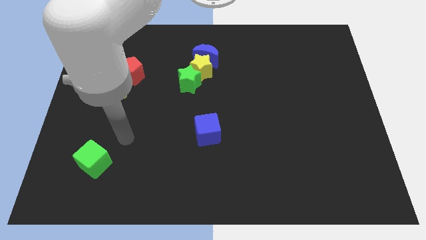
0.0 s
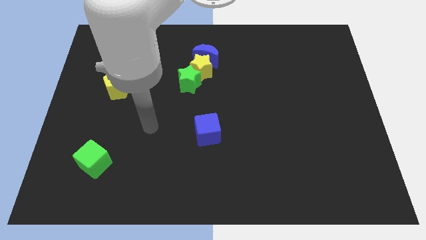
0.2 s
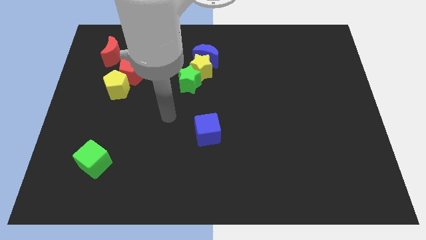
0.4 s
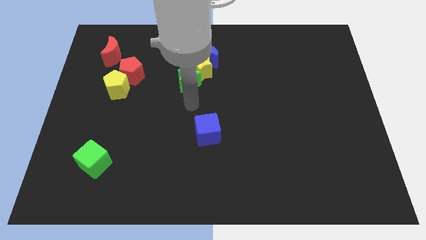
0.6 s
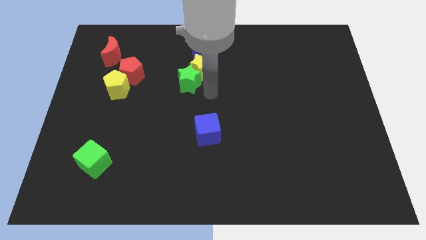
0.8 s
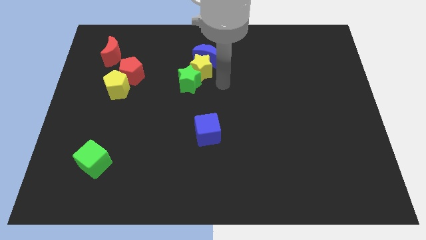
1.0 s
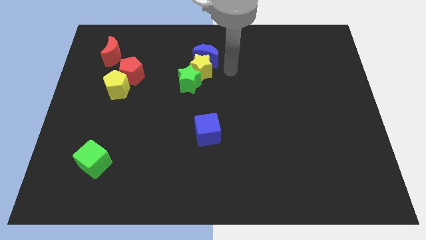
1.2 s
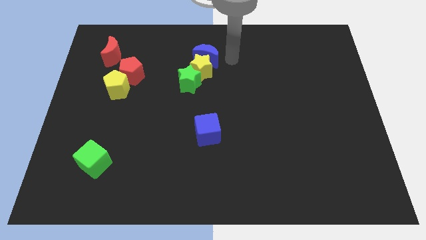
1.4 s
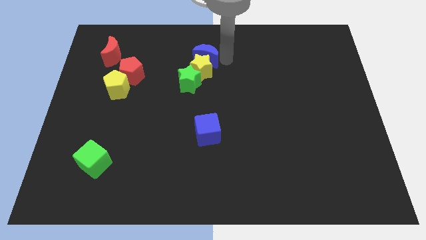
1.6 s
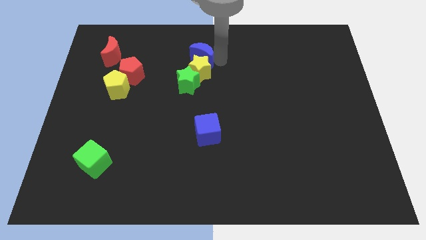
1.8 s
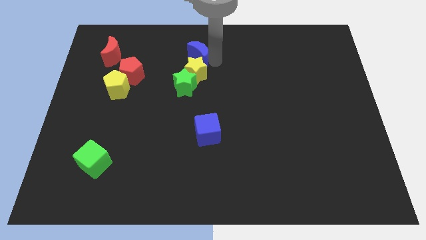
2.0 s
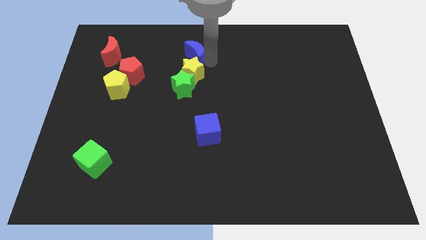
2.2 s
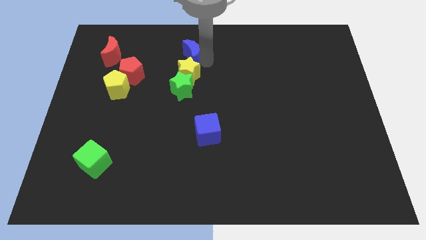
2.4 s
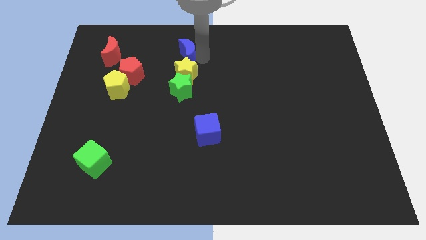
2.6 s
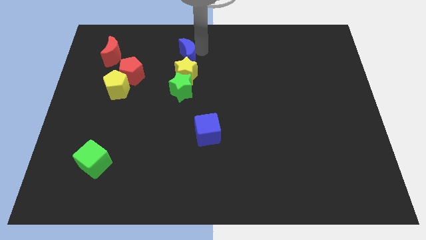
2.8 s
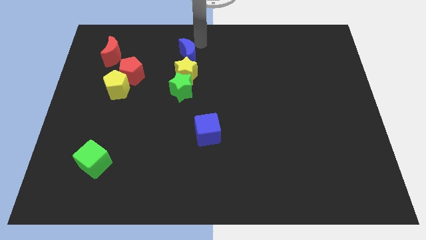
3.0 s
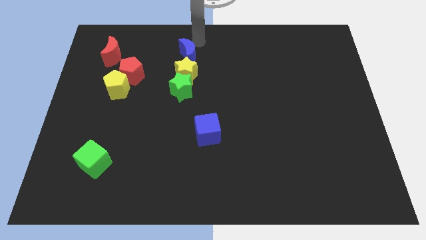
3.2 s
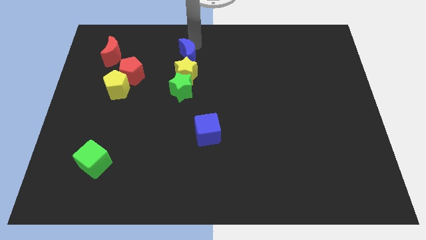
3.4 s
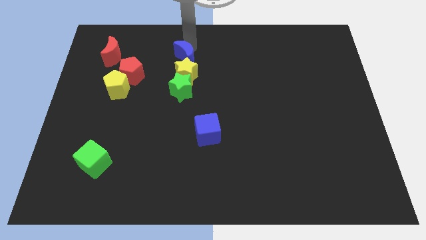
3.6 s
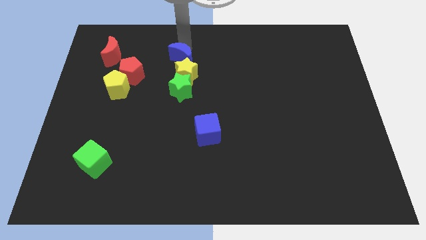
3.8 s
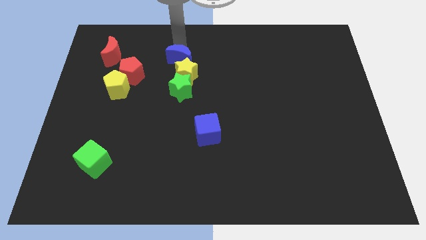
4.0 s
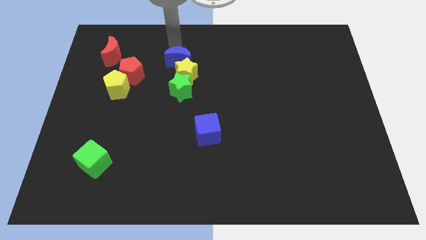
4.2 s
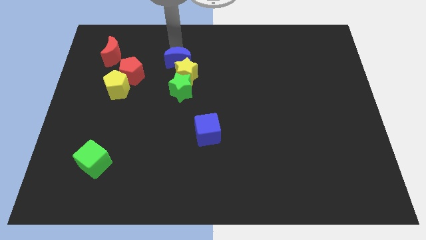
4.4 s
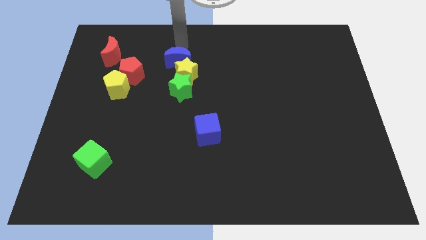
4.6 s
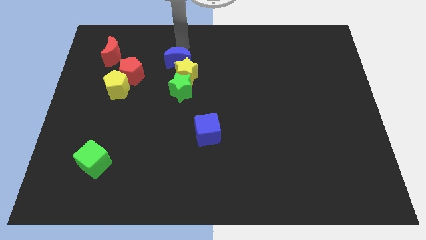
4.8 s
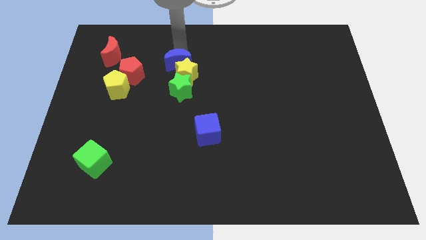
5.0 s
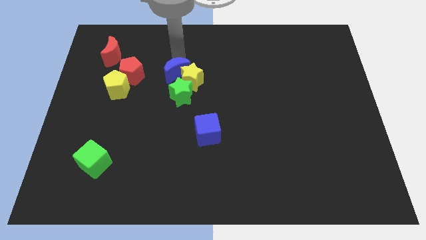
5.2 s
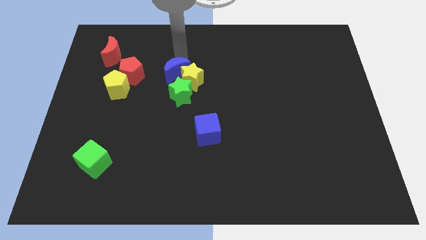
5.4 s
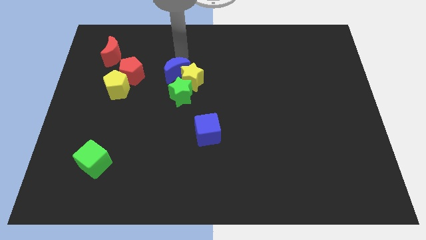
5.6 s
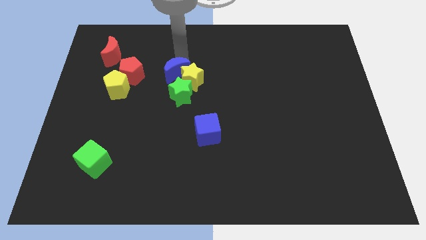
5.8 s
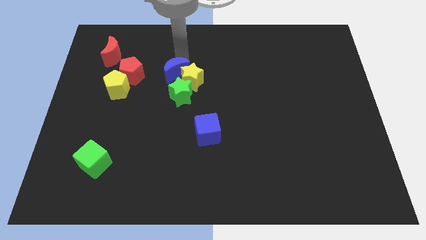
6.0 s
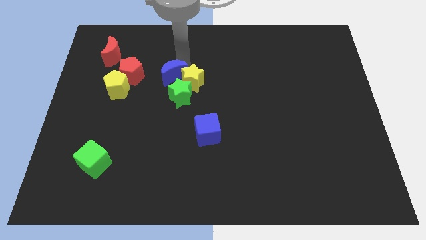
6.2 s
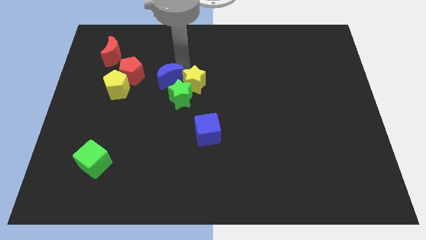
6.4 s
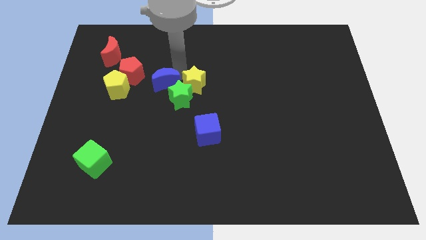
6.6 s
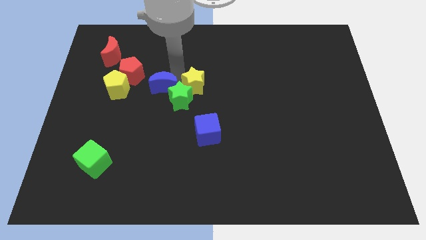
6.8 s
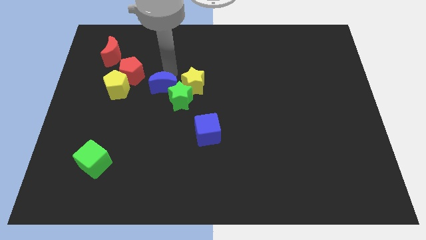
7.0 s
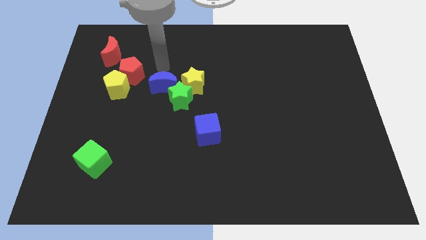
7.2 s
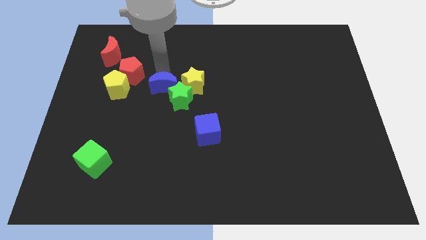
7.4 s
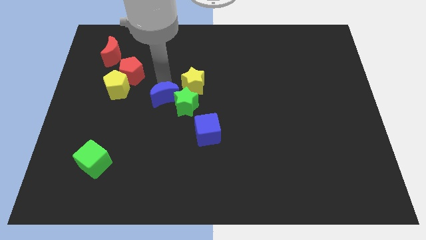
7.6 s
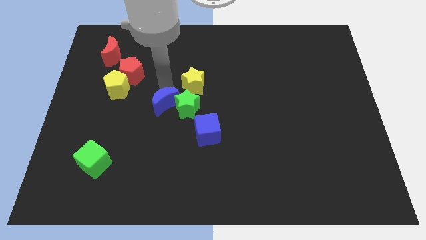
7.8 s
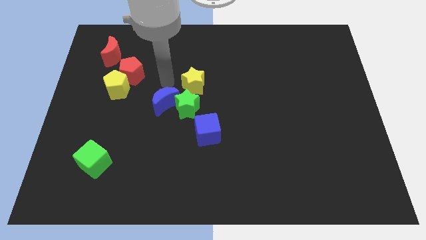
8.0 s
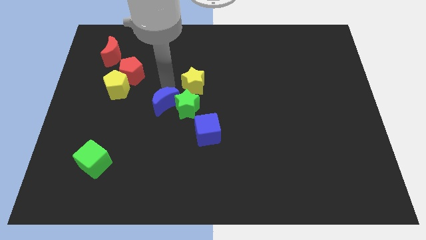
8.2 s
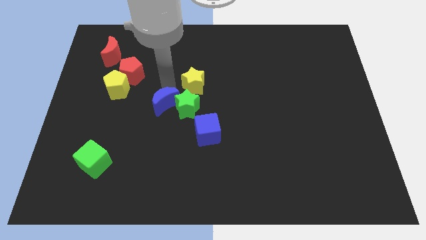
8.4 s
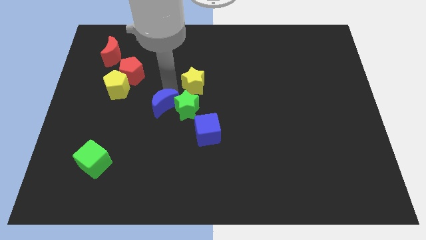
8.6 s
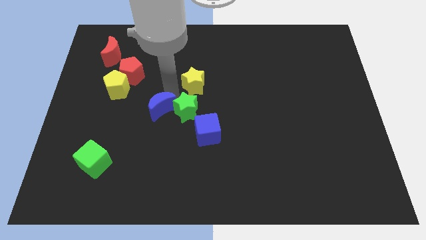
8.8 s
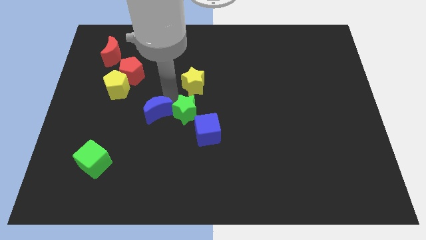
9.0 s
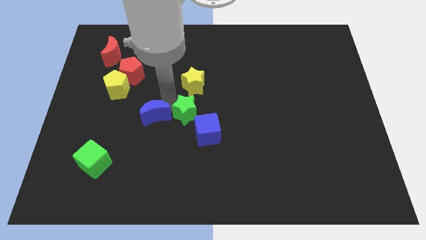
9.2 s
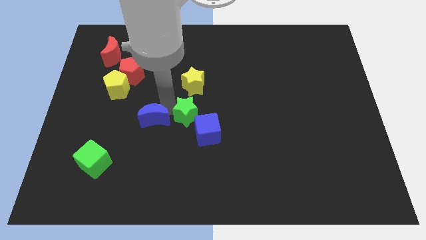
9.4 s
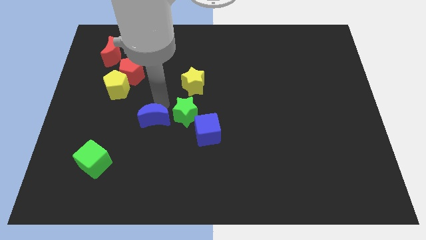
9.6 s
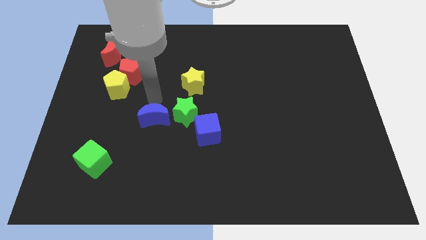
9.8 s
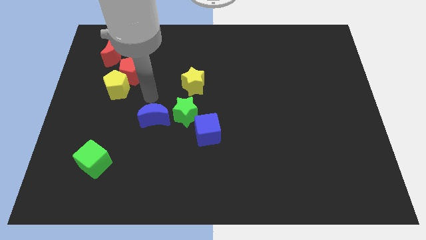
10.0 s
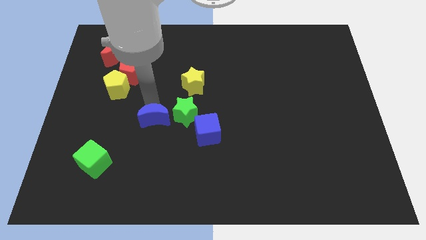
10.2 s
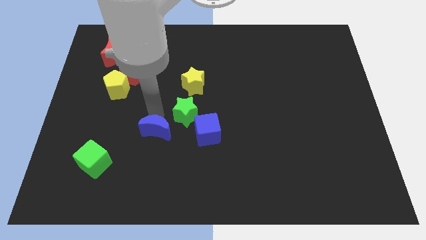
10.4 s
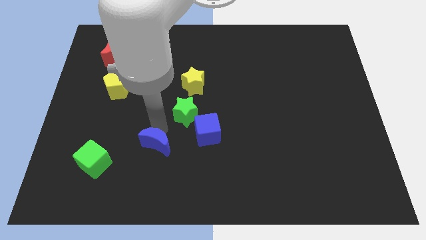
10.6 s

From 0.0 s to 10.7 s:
slide the blue moon to the right side of the green cube

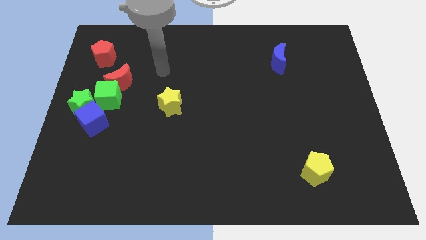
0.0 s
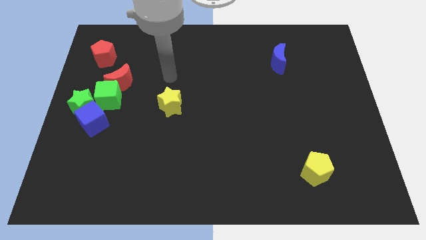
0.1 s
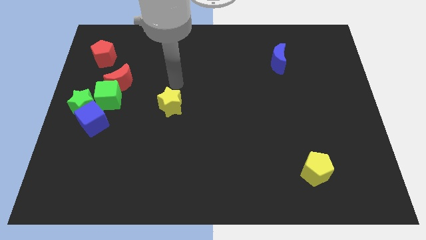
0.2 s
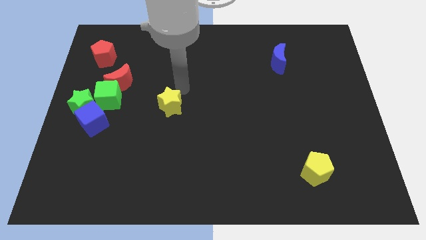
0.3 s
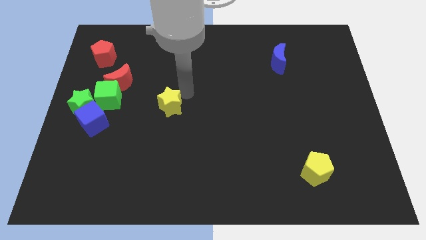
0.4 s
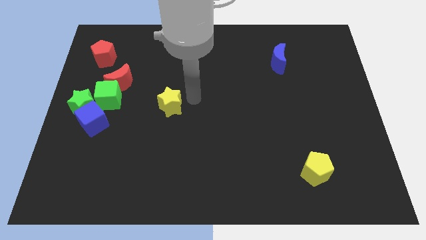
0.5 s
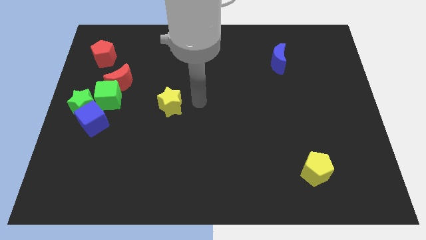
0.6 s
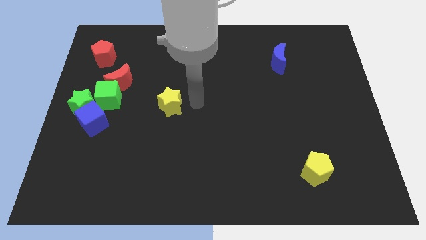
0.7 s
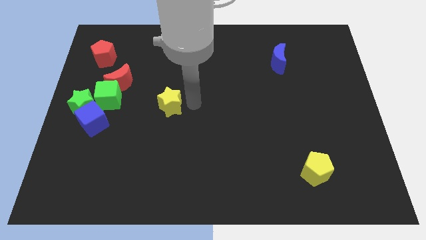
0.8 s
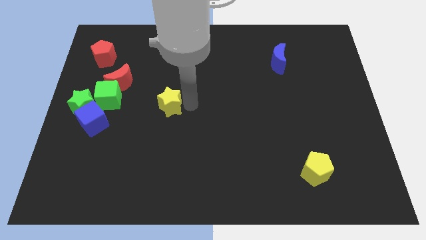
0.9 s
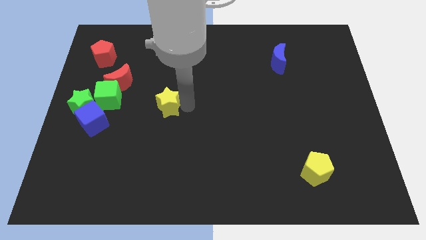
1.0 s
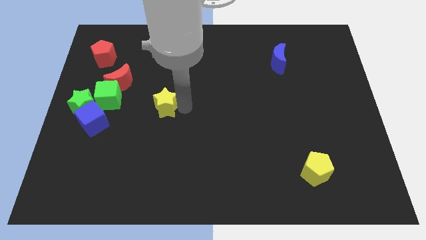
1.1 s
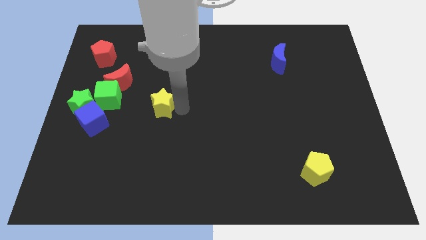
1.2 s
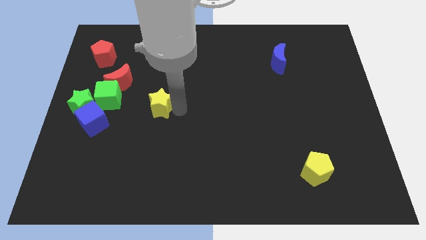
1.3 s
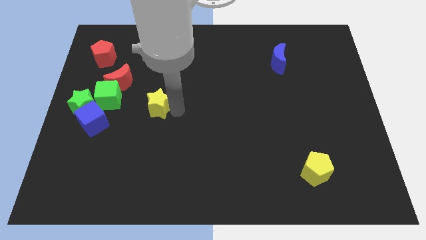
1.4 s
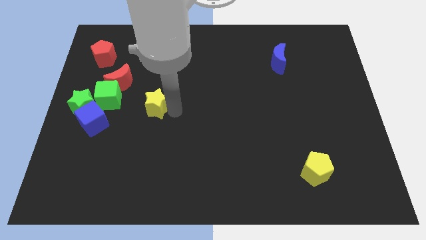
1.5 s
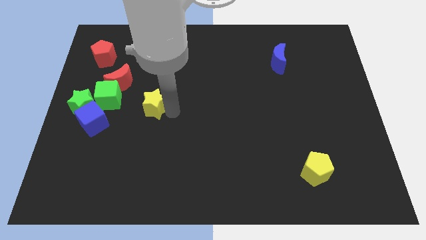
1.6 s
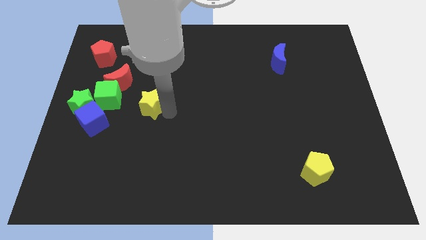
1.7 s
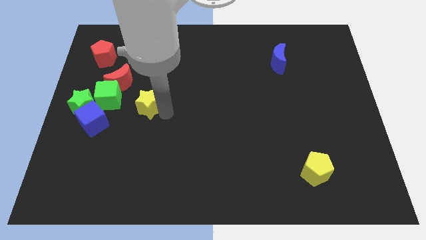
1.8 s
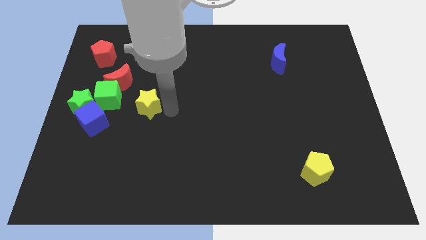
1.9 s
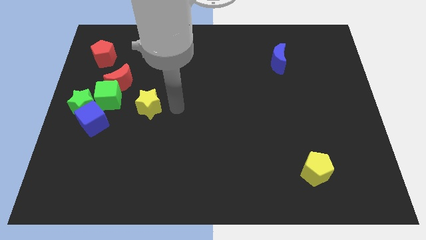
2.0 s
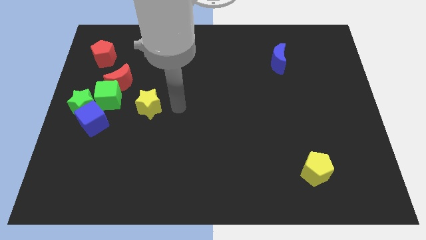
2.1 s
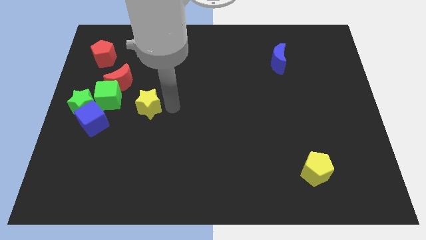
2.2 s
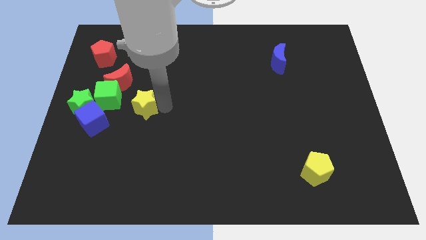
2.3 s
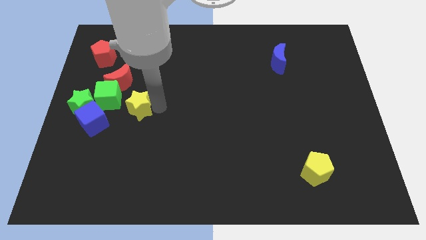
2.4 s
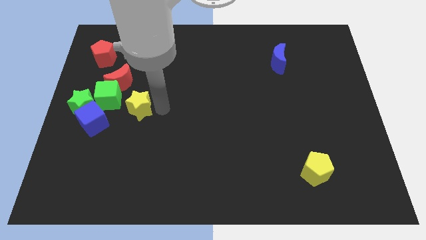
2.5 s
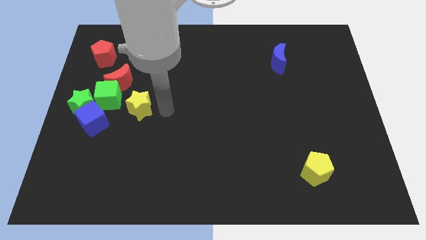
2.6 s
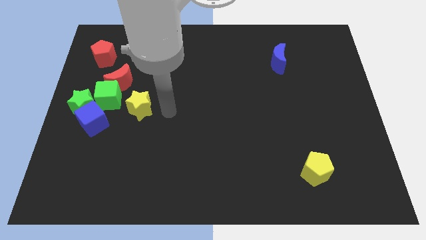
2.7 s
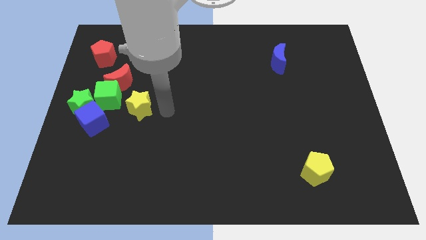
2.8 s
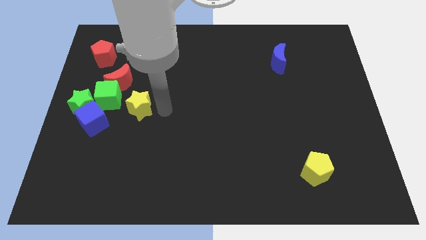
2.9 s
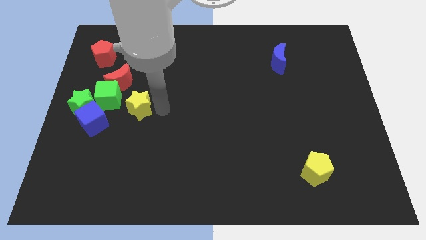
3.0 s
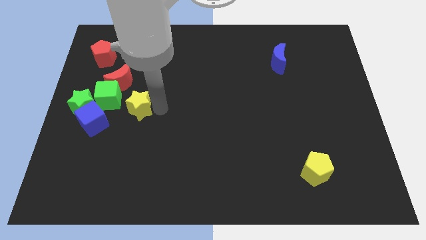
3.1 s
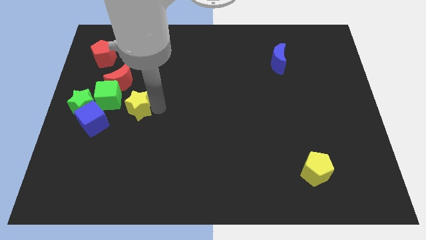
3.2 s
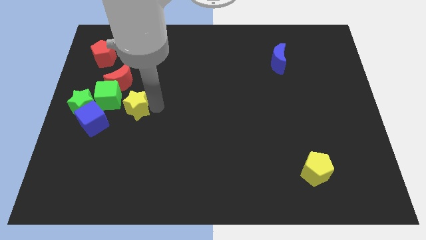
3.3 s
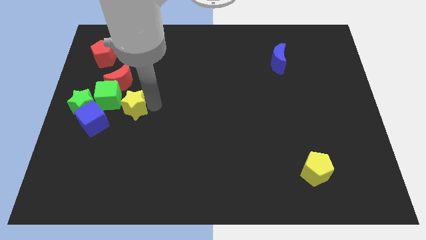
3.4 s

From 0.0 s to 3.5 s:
put the yellow star to the bottom side of the red moon
